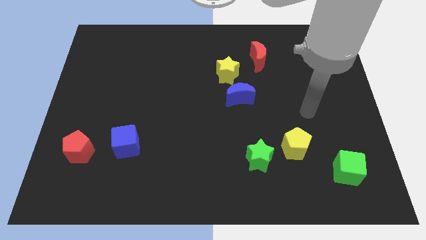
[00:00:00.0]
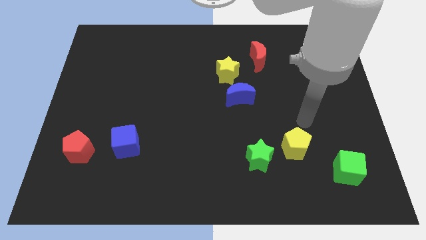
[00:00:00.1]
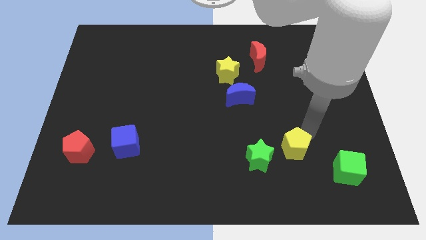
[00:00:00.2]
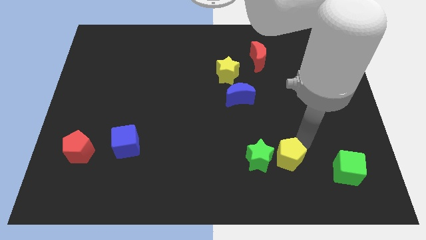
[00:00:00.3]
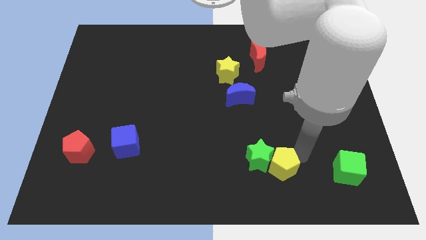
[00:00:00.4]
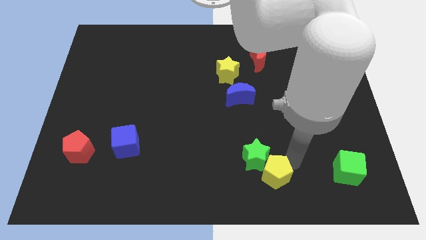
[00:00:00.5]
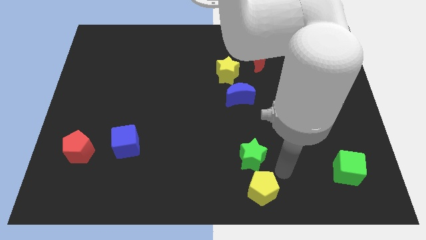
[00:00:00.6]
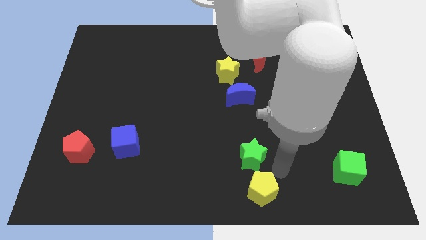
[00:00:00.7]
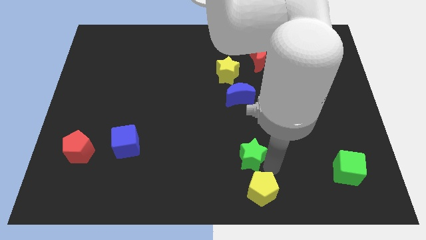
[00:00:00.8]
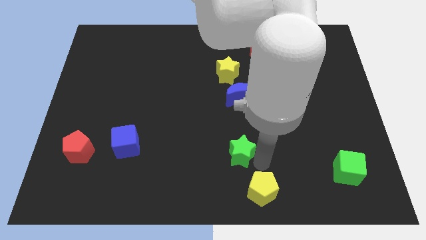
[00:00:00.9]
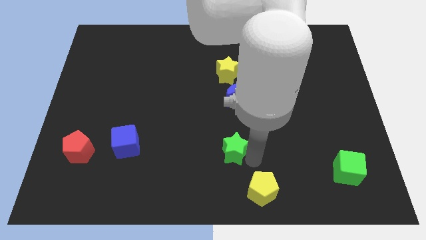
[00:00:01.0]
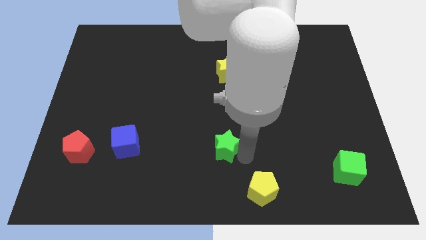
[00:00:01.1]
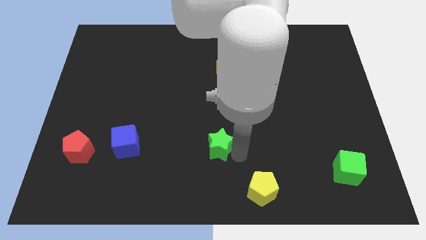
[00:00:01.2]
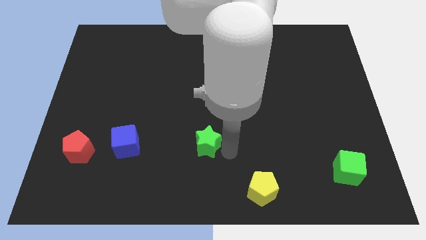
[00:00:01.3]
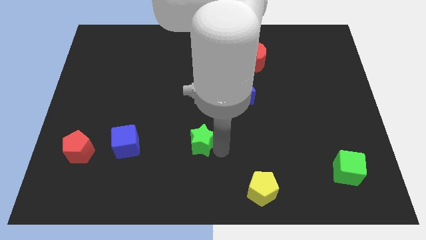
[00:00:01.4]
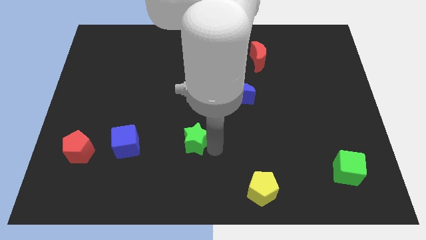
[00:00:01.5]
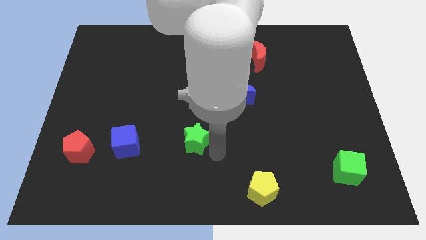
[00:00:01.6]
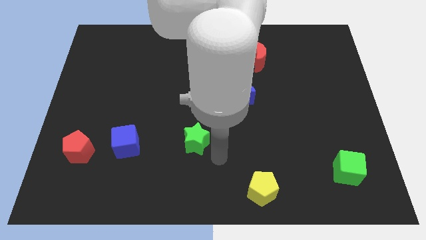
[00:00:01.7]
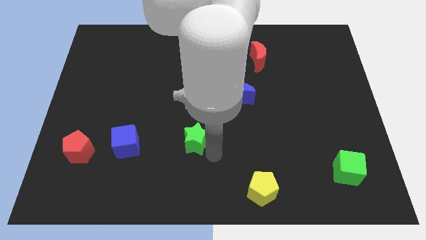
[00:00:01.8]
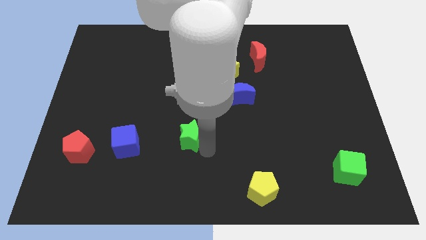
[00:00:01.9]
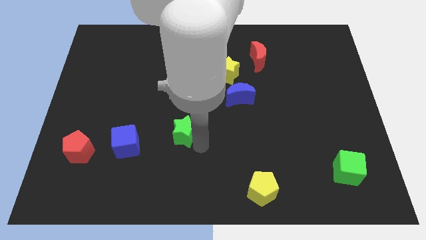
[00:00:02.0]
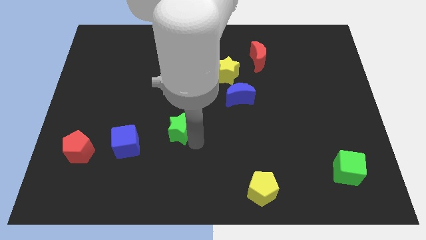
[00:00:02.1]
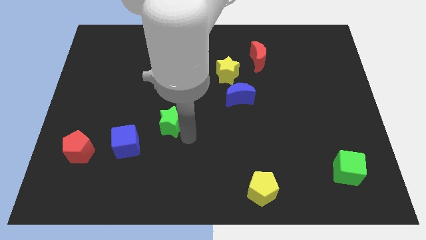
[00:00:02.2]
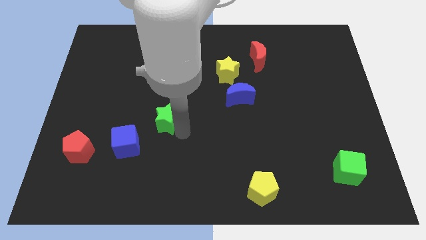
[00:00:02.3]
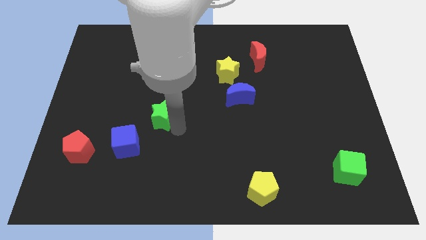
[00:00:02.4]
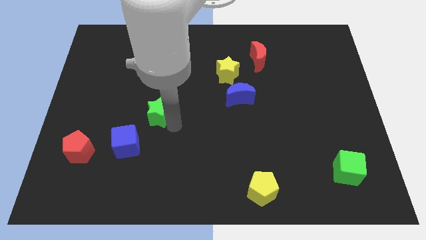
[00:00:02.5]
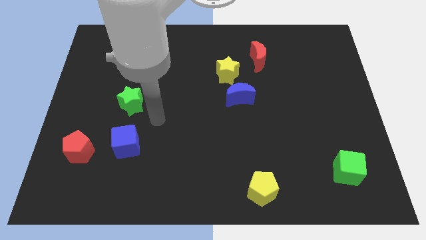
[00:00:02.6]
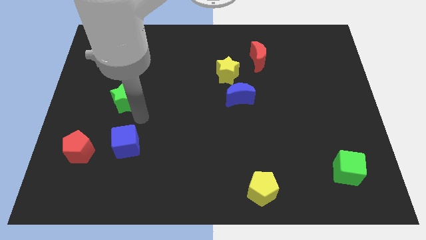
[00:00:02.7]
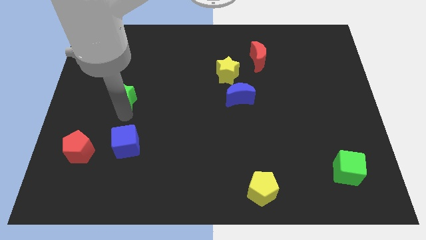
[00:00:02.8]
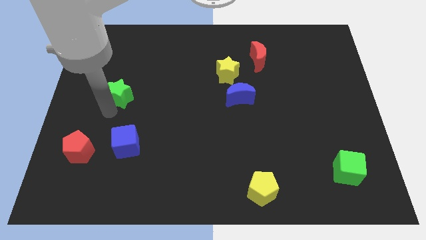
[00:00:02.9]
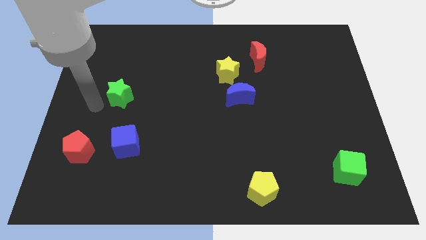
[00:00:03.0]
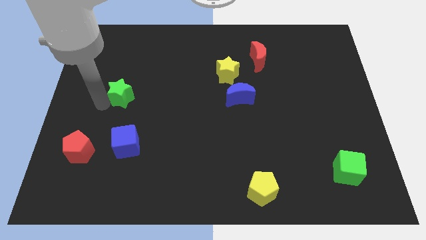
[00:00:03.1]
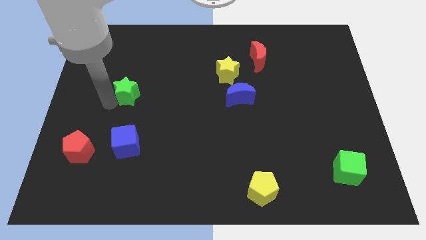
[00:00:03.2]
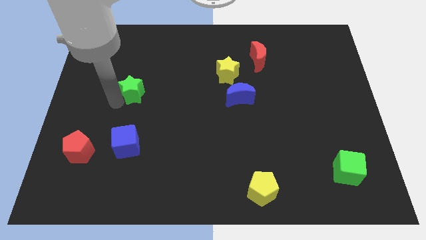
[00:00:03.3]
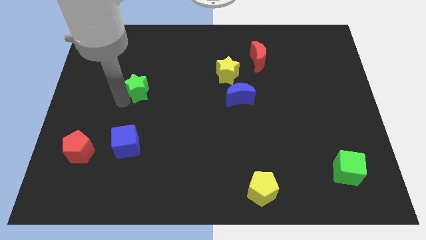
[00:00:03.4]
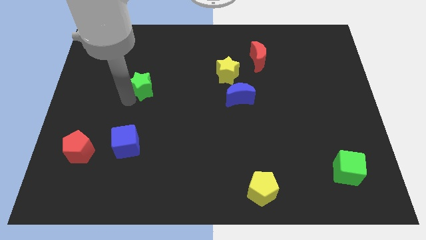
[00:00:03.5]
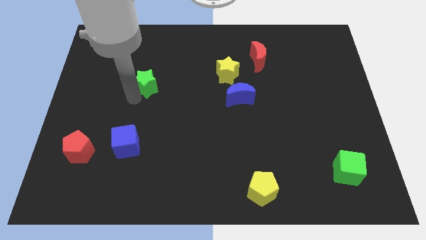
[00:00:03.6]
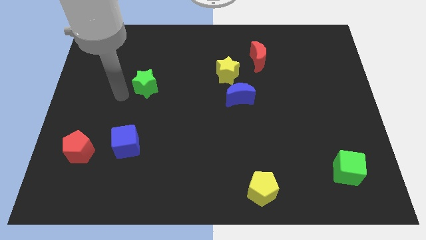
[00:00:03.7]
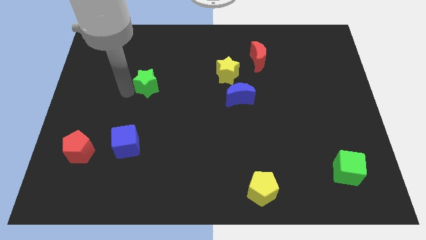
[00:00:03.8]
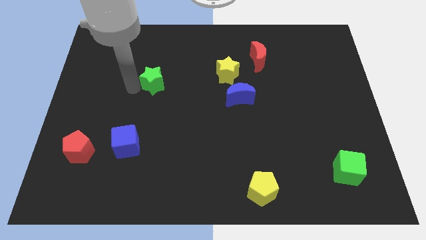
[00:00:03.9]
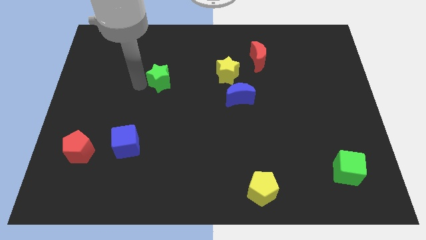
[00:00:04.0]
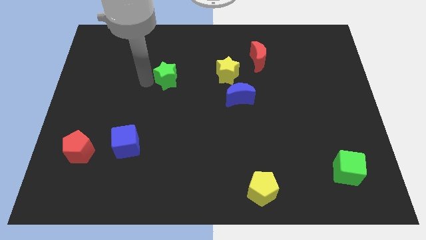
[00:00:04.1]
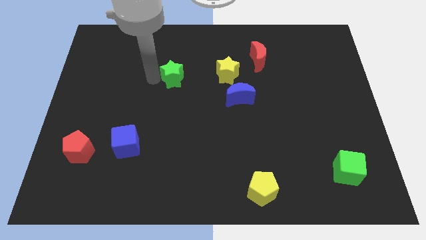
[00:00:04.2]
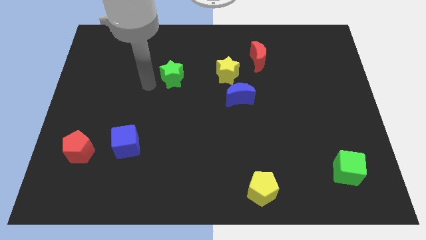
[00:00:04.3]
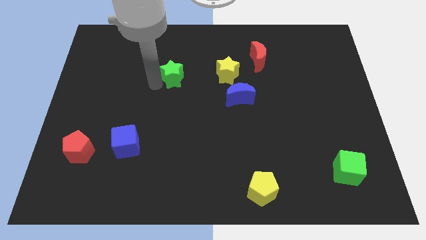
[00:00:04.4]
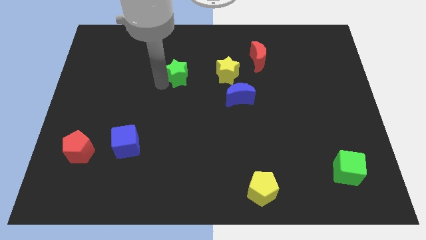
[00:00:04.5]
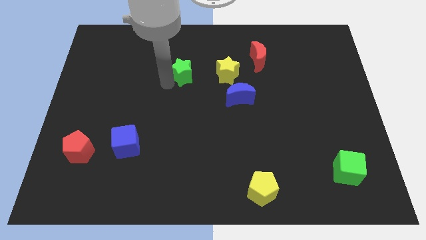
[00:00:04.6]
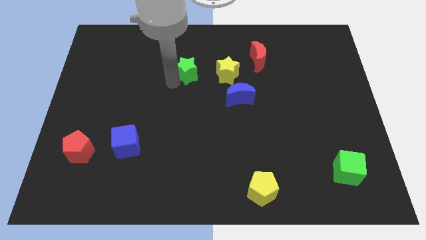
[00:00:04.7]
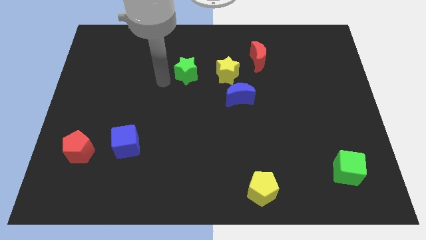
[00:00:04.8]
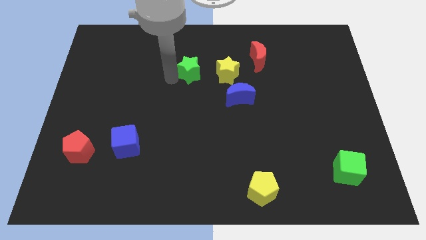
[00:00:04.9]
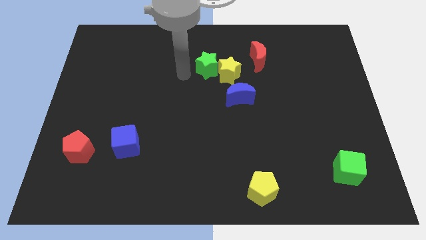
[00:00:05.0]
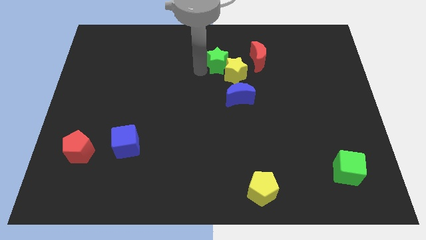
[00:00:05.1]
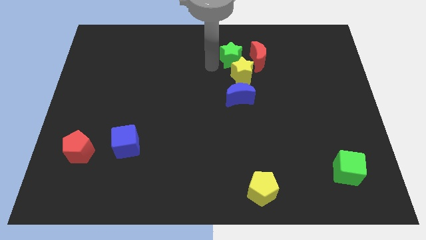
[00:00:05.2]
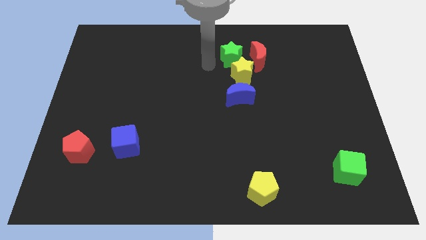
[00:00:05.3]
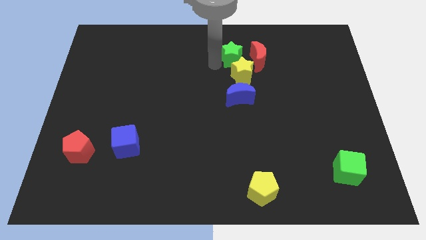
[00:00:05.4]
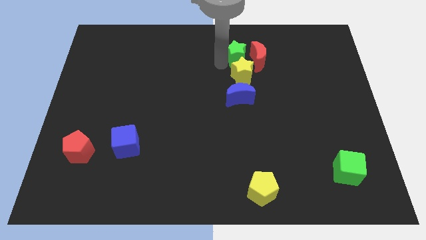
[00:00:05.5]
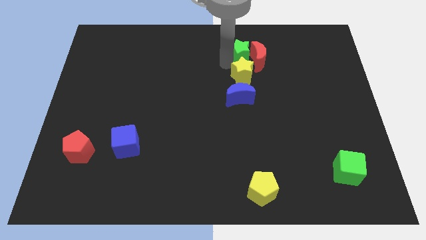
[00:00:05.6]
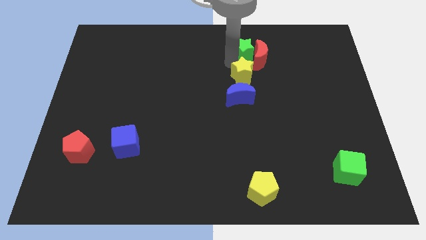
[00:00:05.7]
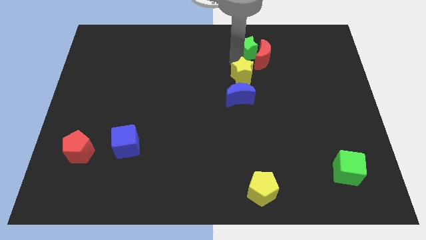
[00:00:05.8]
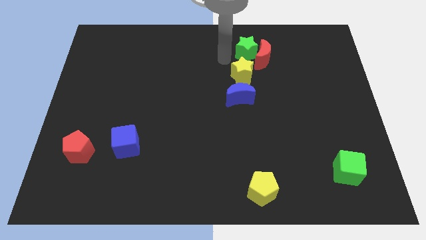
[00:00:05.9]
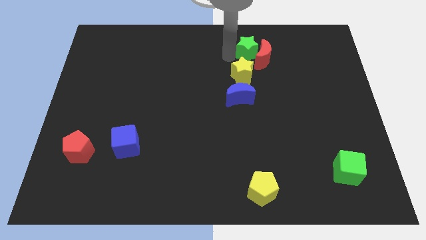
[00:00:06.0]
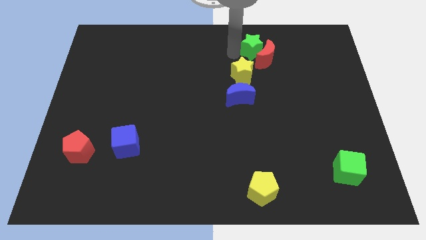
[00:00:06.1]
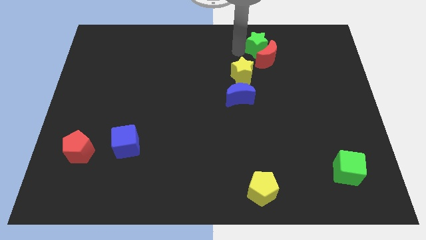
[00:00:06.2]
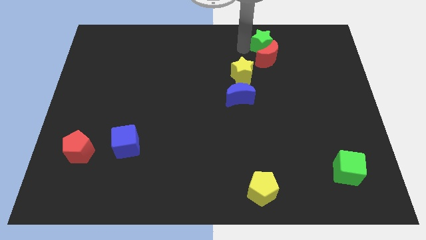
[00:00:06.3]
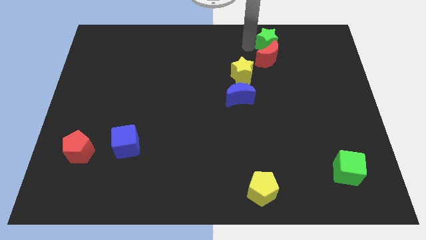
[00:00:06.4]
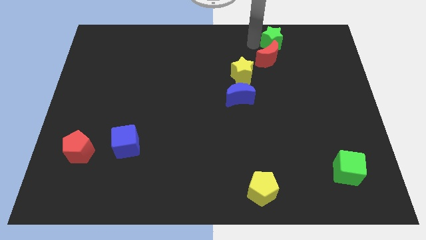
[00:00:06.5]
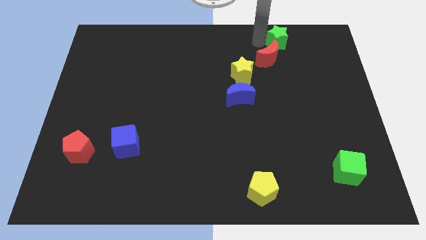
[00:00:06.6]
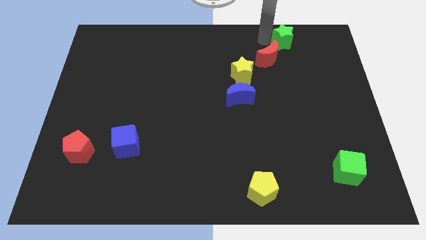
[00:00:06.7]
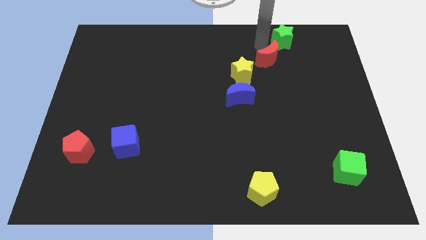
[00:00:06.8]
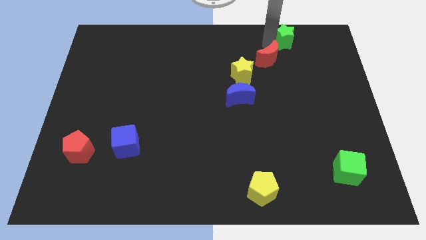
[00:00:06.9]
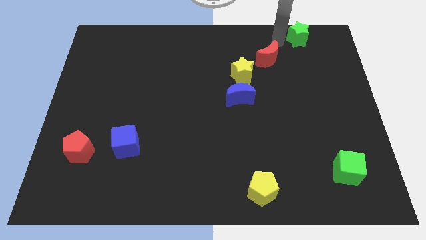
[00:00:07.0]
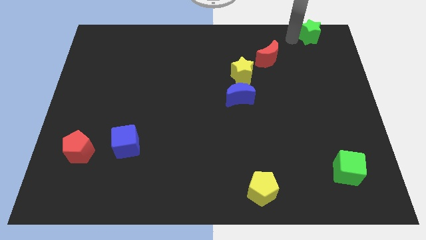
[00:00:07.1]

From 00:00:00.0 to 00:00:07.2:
slide the green star to the top right corner
